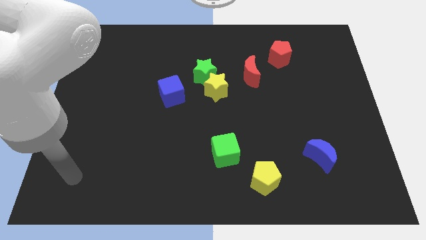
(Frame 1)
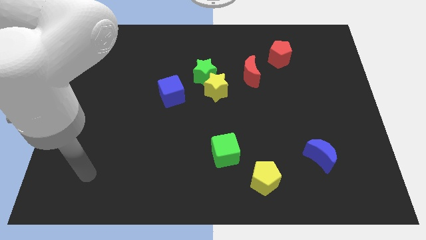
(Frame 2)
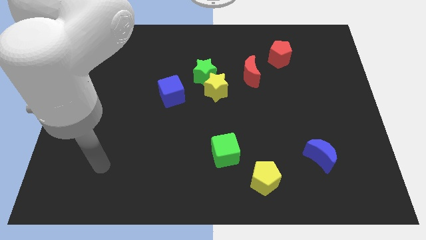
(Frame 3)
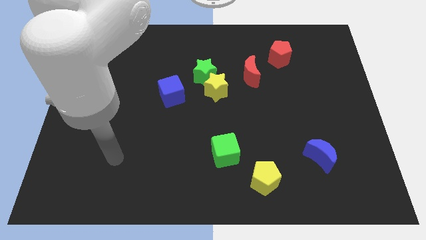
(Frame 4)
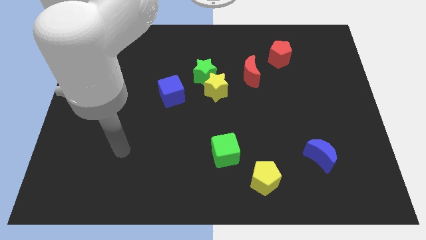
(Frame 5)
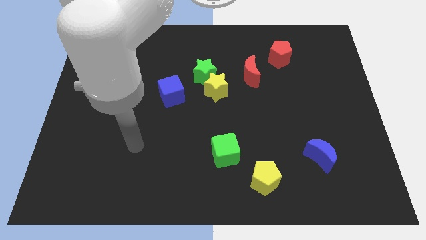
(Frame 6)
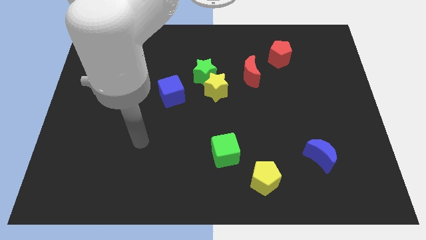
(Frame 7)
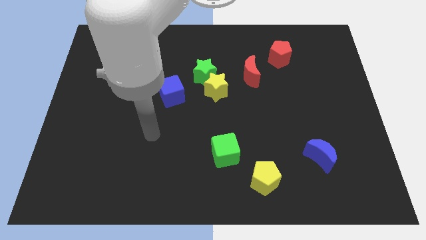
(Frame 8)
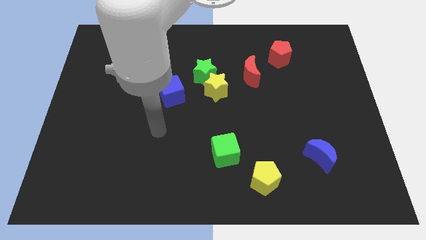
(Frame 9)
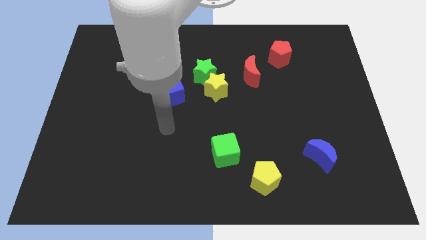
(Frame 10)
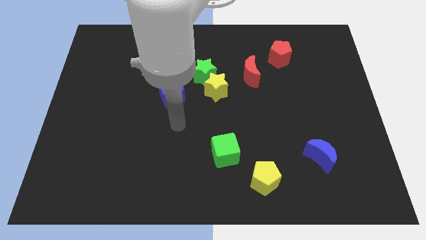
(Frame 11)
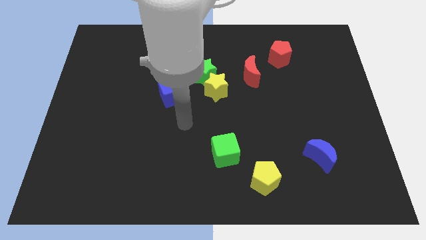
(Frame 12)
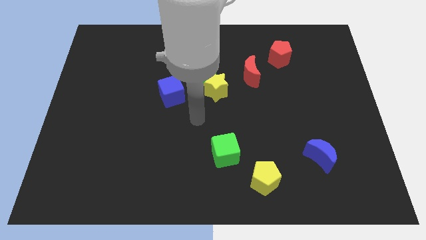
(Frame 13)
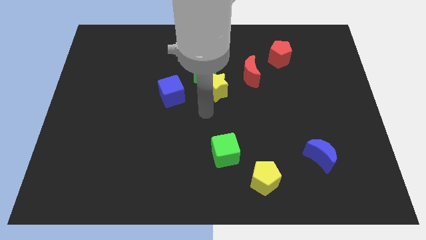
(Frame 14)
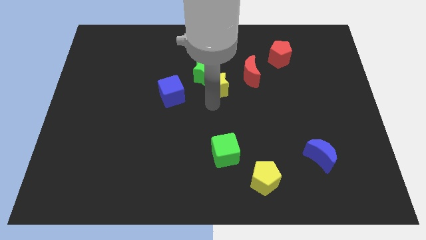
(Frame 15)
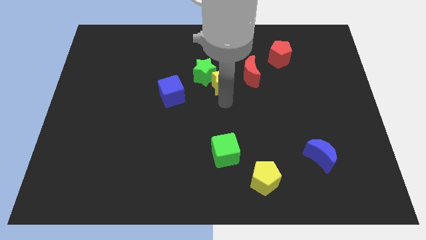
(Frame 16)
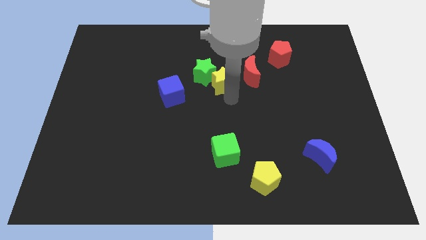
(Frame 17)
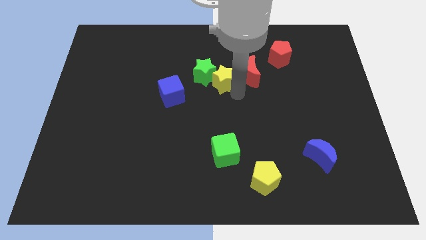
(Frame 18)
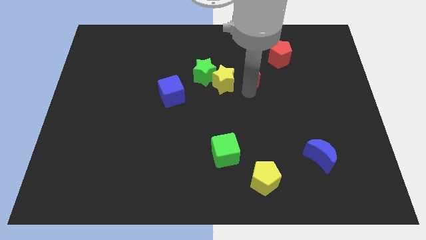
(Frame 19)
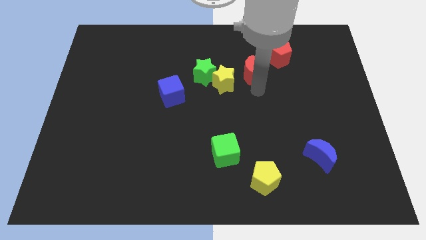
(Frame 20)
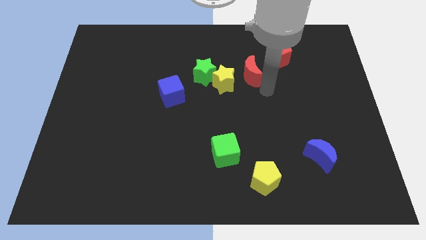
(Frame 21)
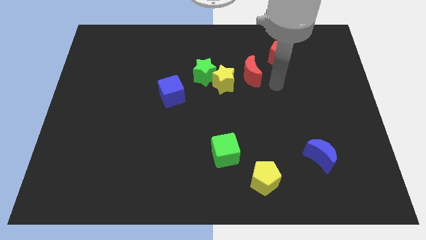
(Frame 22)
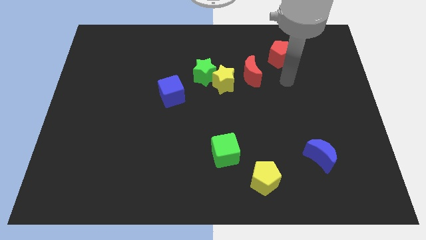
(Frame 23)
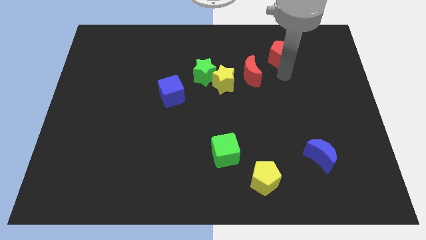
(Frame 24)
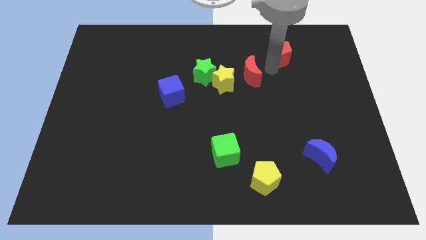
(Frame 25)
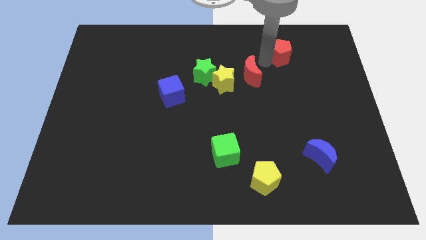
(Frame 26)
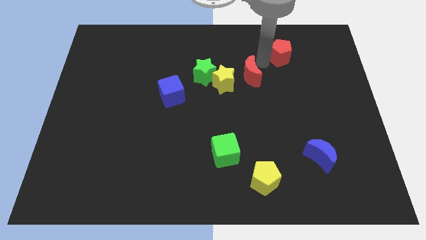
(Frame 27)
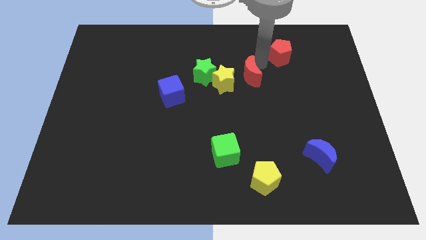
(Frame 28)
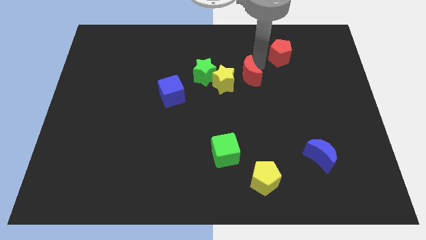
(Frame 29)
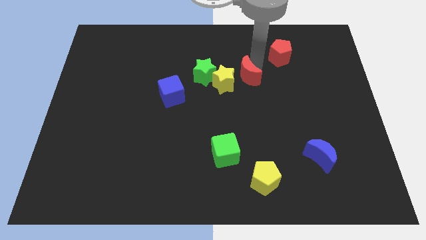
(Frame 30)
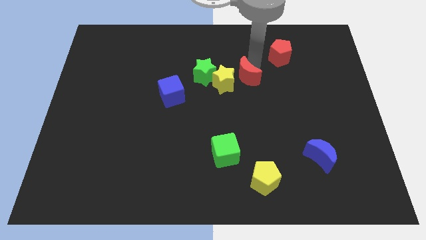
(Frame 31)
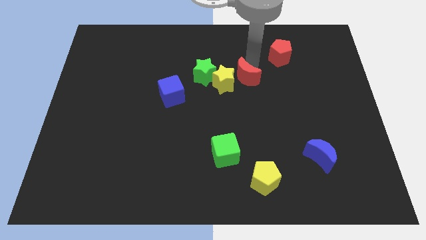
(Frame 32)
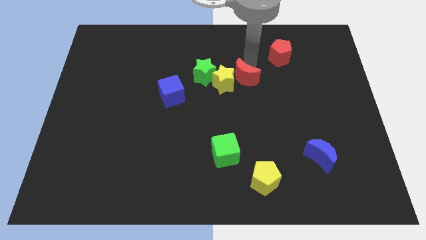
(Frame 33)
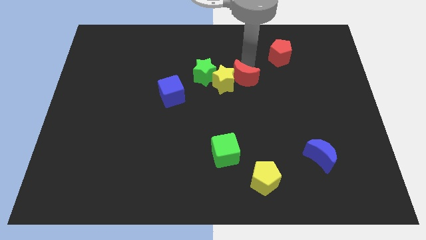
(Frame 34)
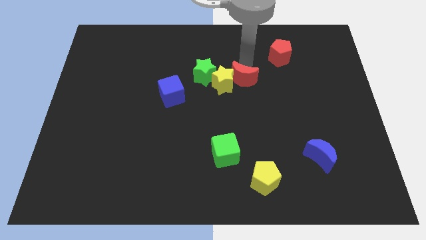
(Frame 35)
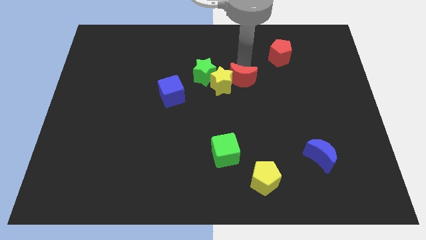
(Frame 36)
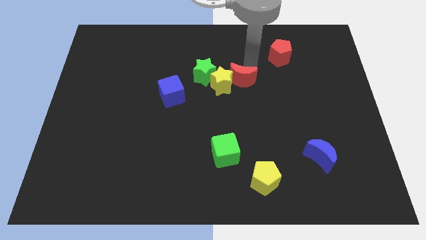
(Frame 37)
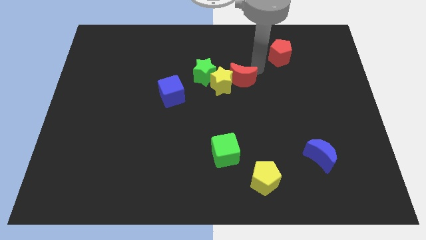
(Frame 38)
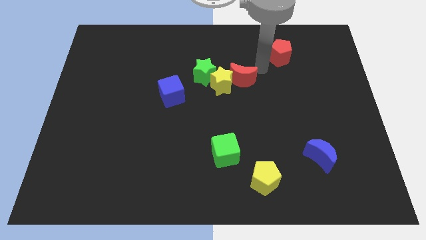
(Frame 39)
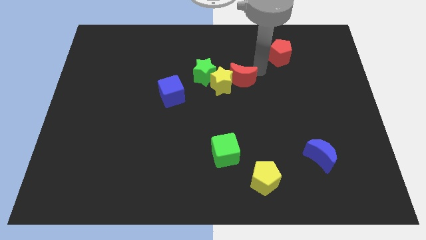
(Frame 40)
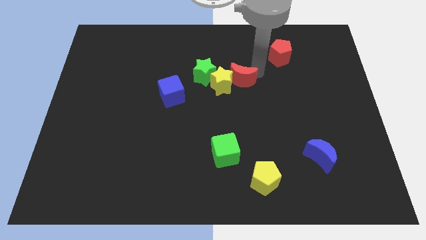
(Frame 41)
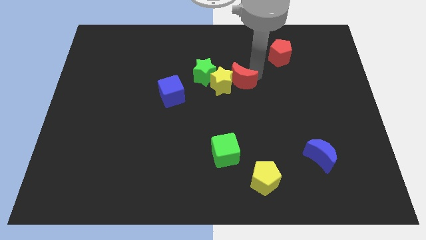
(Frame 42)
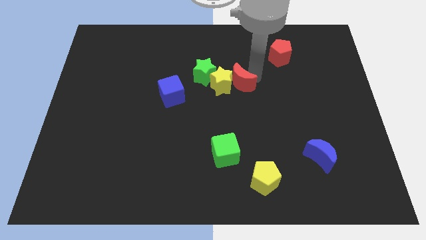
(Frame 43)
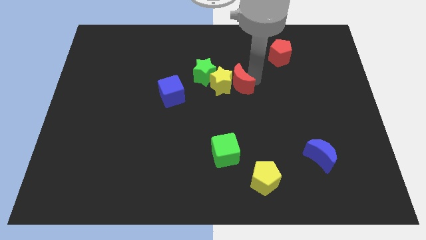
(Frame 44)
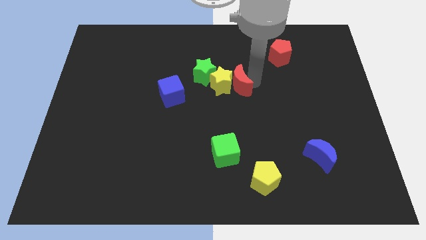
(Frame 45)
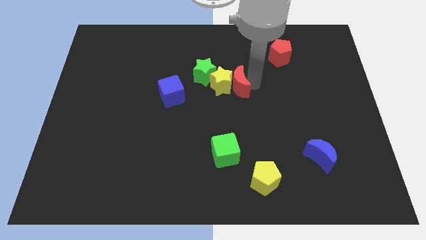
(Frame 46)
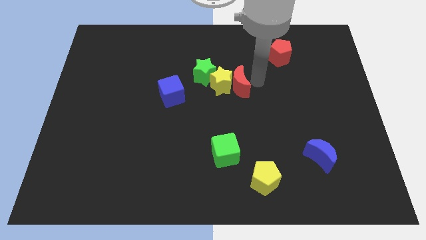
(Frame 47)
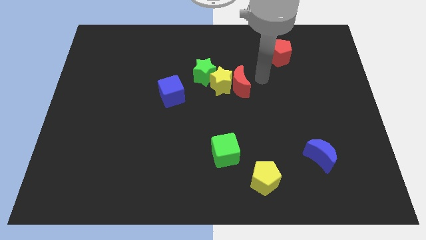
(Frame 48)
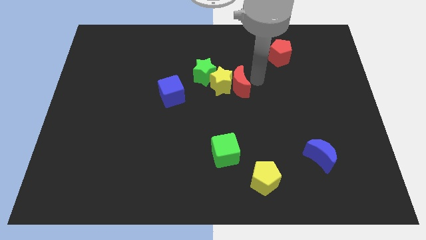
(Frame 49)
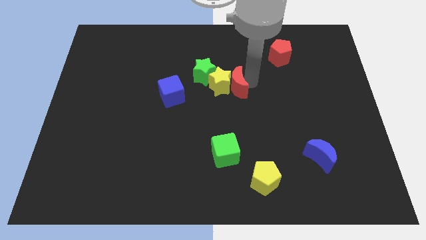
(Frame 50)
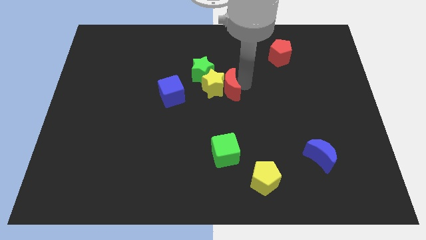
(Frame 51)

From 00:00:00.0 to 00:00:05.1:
put the red moon right of the blue cube

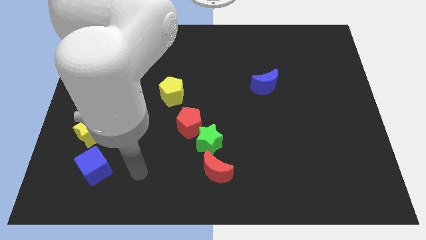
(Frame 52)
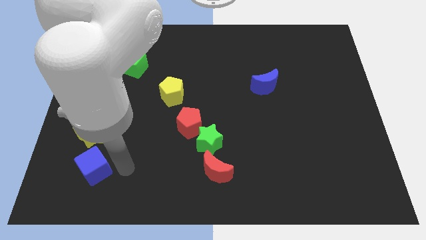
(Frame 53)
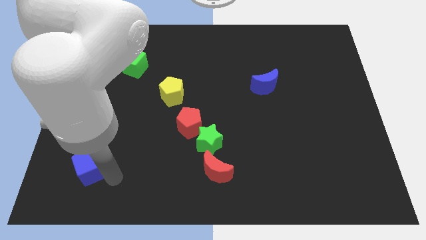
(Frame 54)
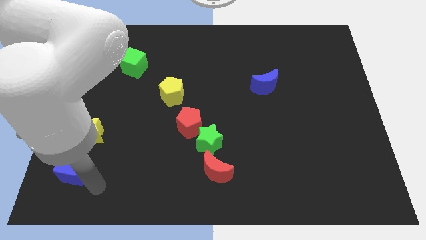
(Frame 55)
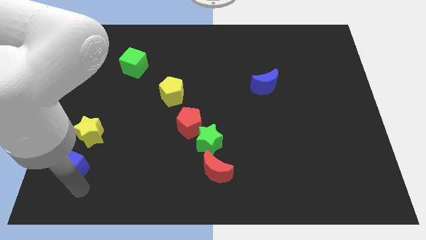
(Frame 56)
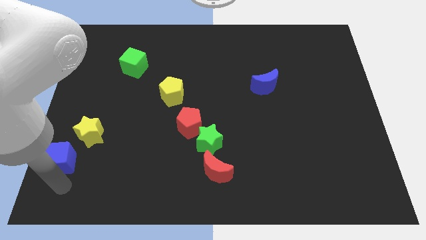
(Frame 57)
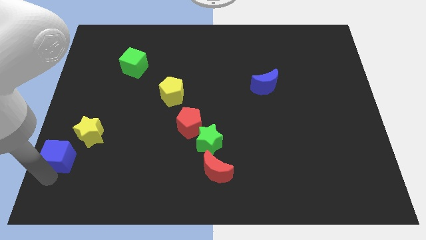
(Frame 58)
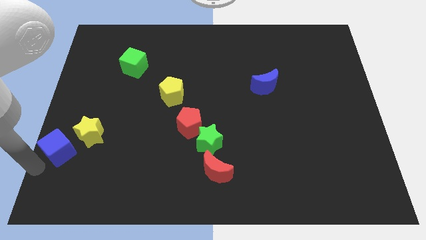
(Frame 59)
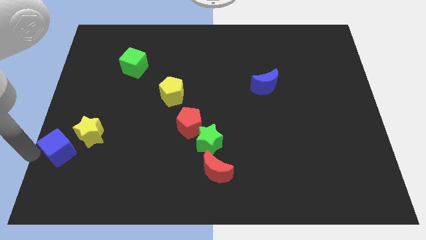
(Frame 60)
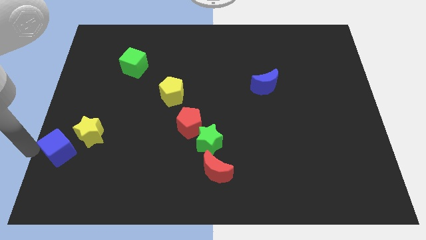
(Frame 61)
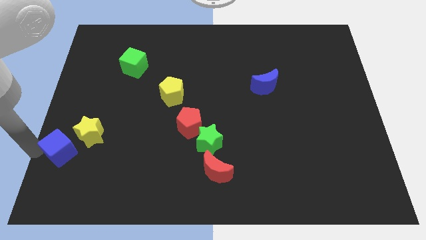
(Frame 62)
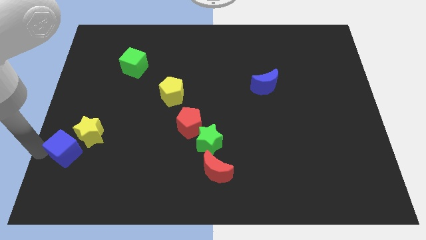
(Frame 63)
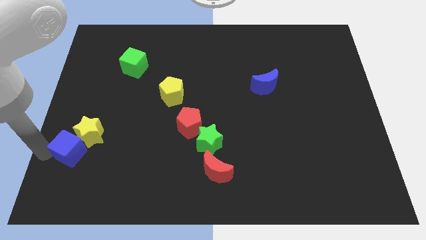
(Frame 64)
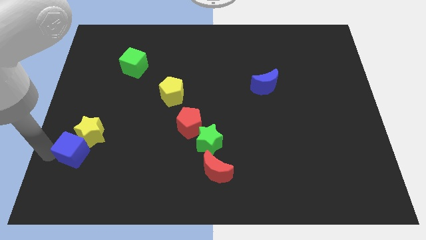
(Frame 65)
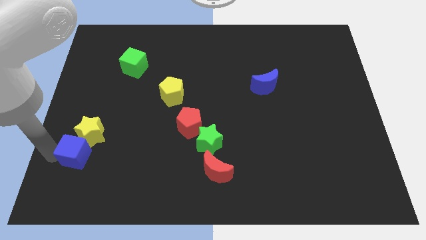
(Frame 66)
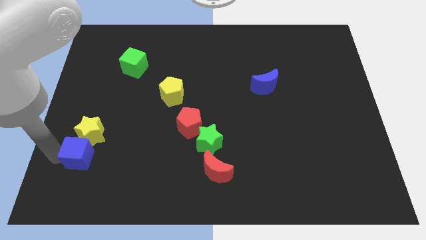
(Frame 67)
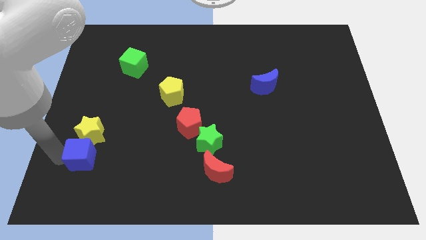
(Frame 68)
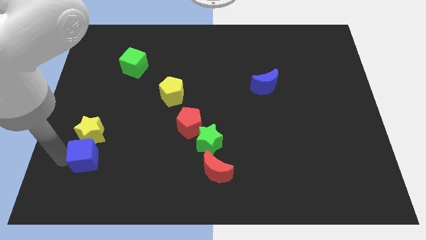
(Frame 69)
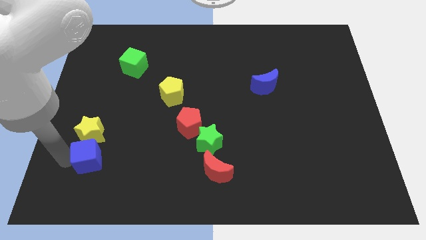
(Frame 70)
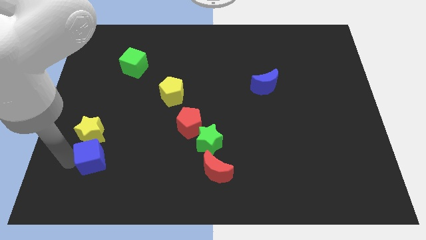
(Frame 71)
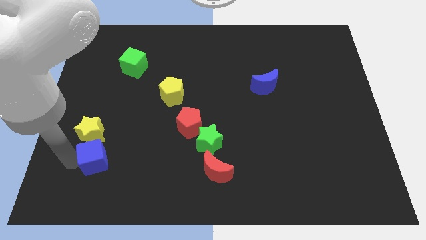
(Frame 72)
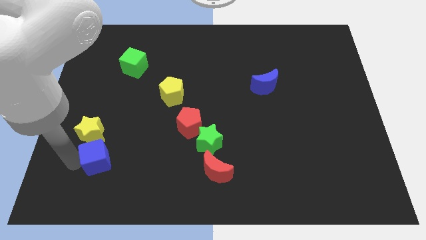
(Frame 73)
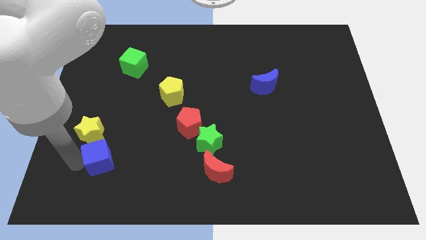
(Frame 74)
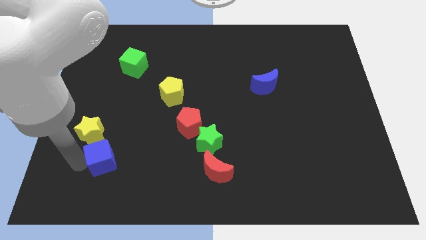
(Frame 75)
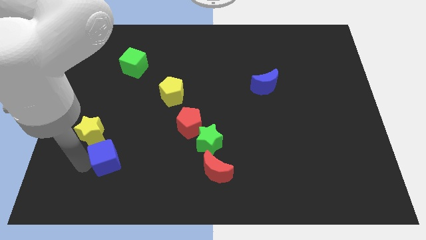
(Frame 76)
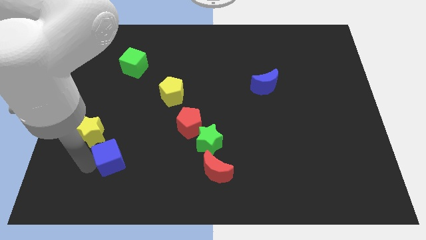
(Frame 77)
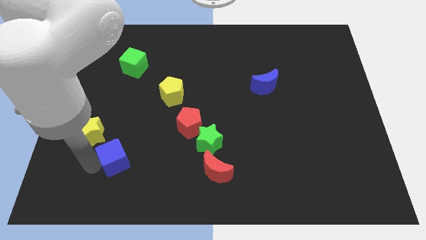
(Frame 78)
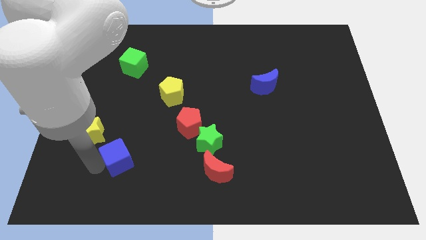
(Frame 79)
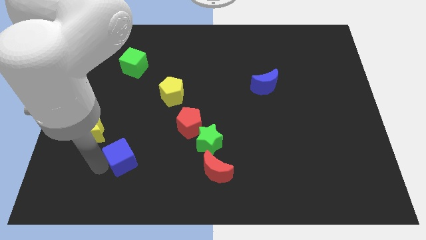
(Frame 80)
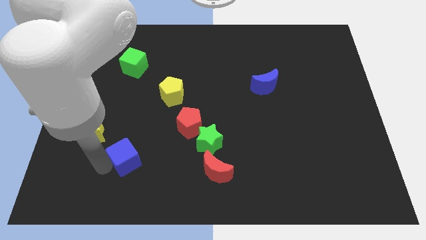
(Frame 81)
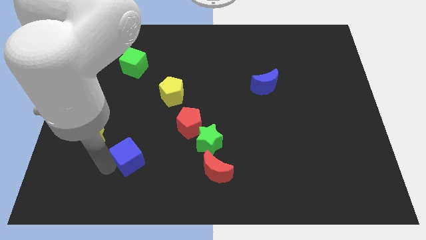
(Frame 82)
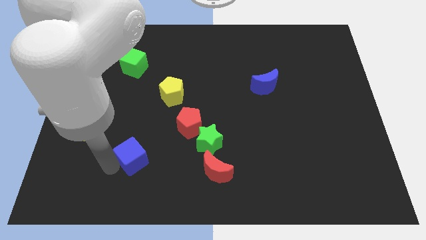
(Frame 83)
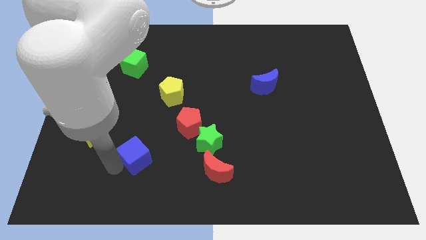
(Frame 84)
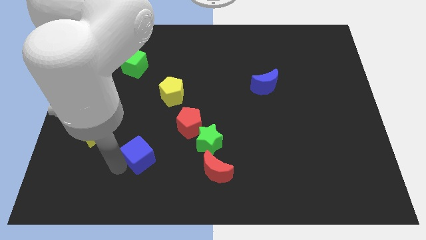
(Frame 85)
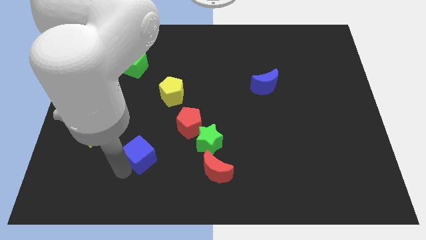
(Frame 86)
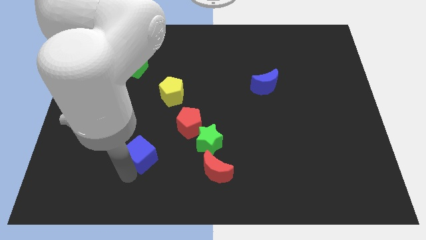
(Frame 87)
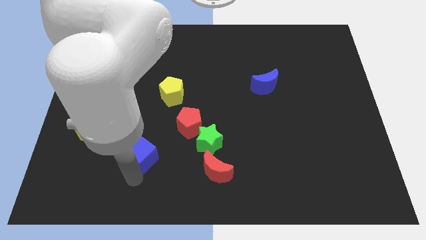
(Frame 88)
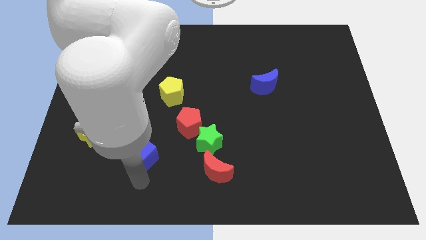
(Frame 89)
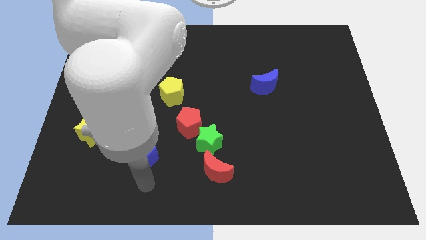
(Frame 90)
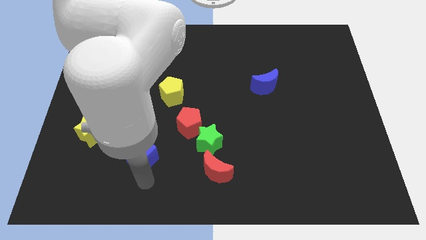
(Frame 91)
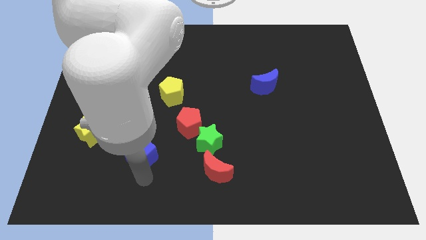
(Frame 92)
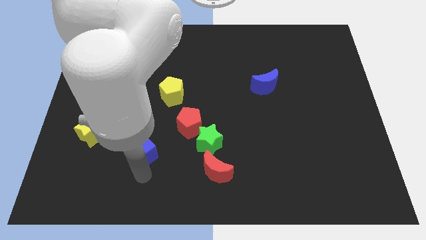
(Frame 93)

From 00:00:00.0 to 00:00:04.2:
slide the blue cube just right of the yellow star
